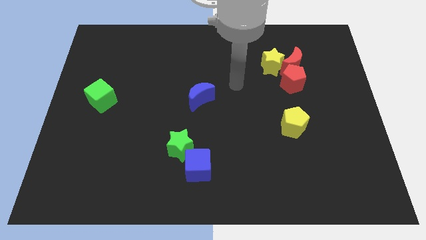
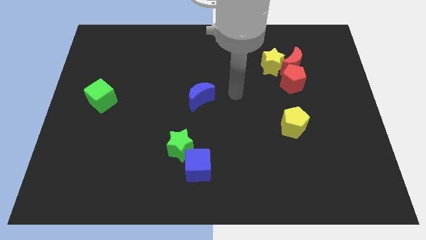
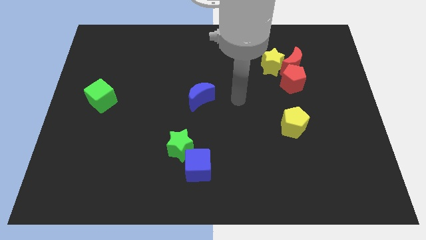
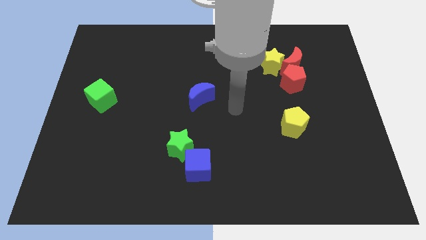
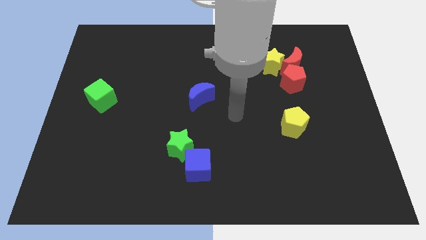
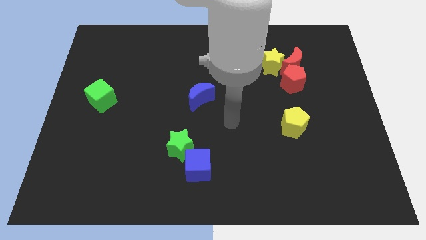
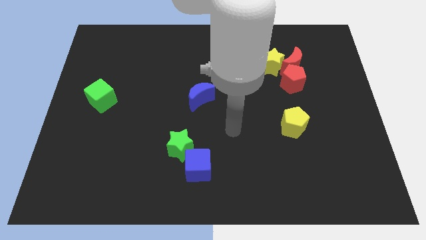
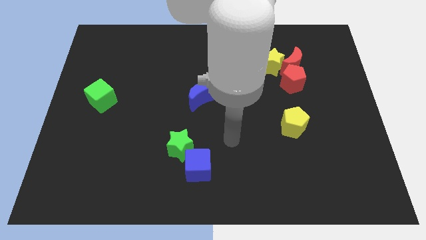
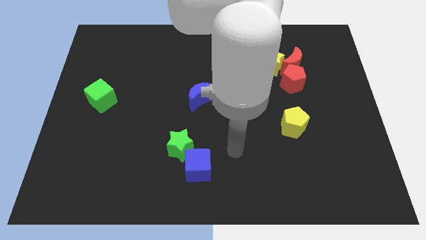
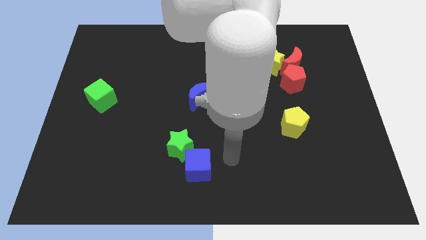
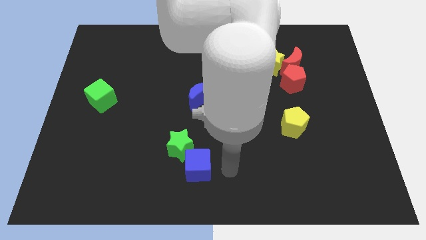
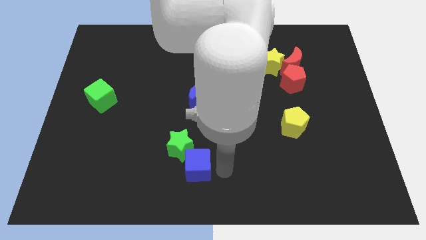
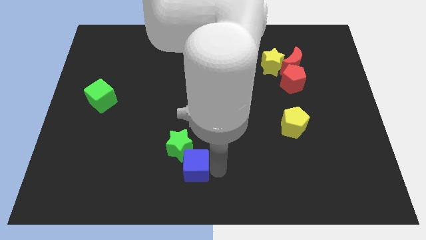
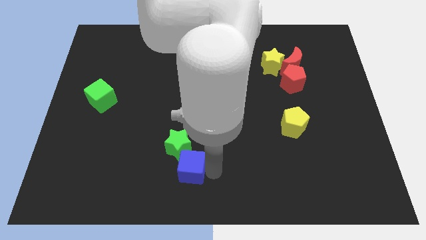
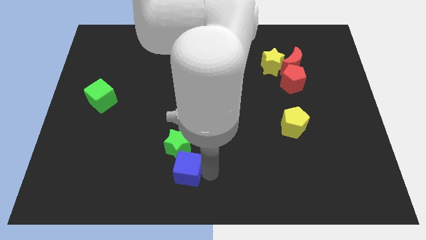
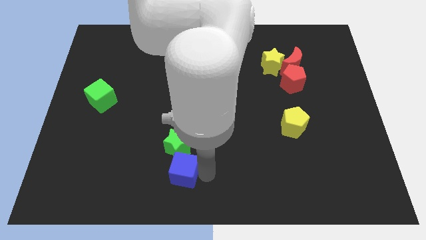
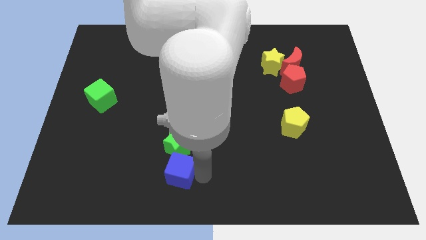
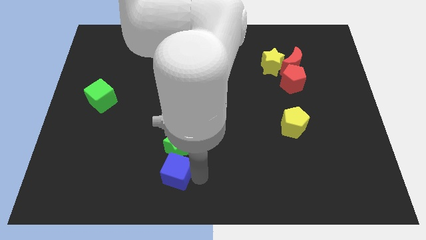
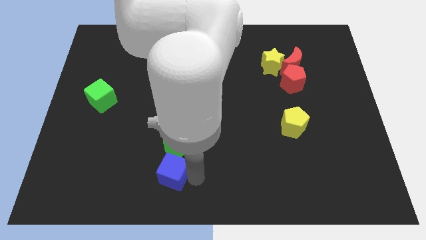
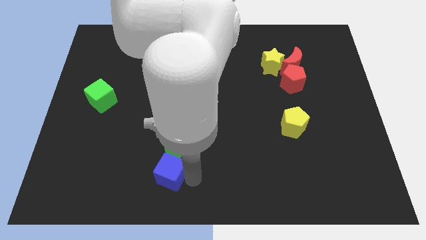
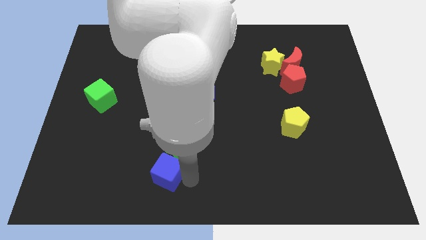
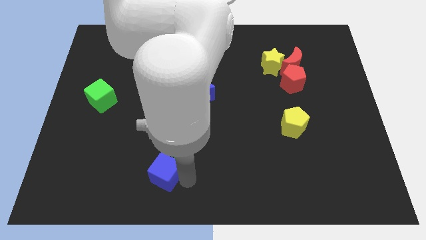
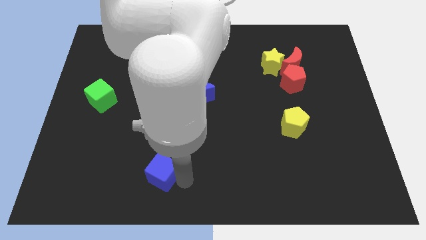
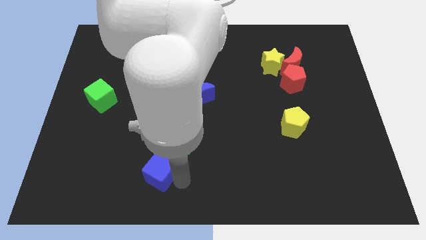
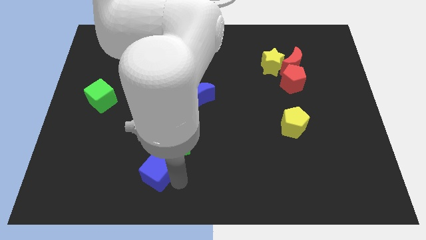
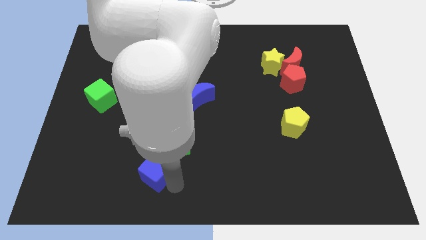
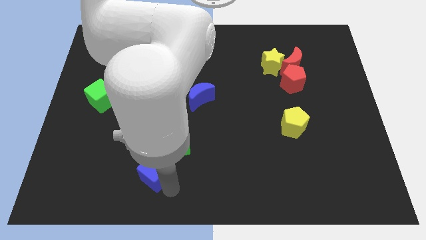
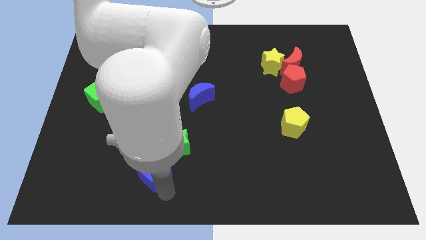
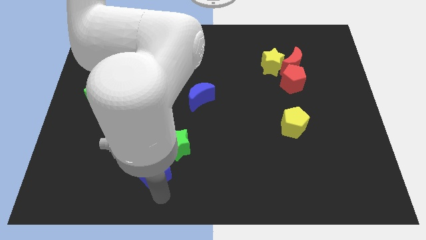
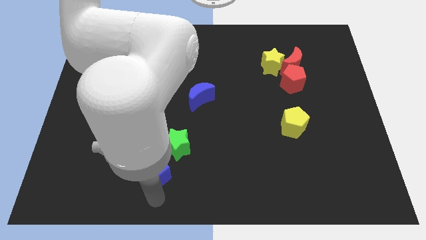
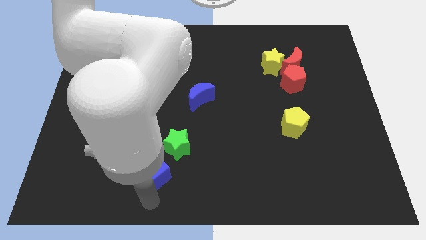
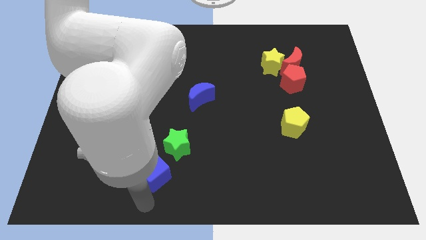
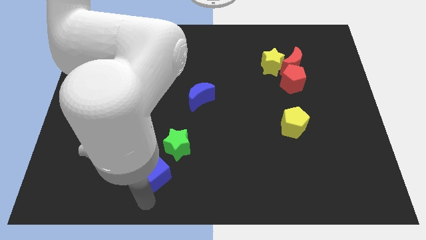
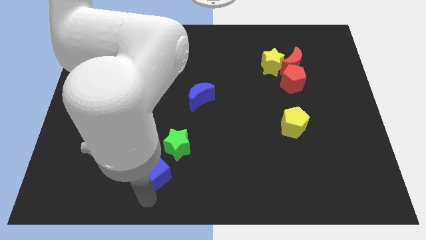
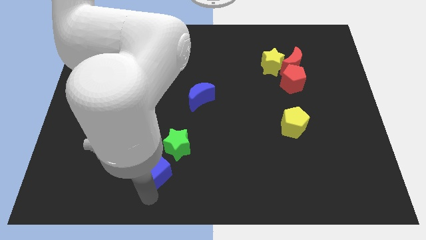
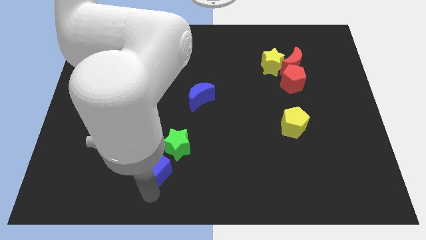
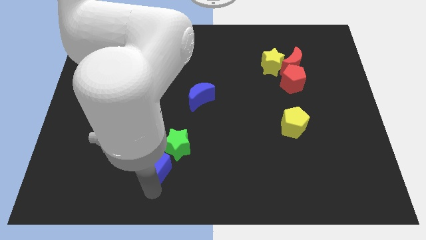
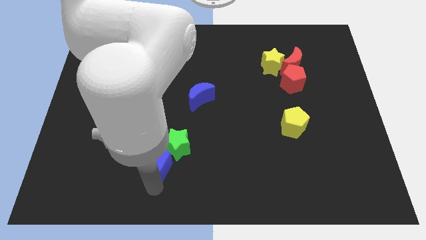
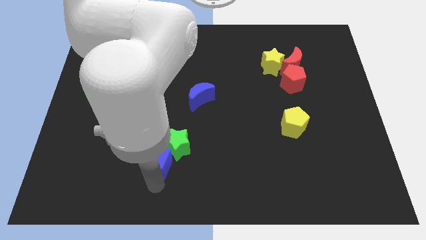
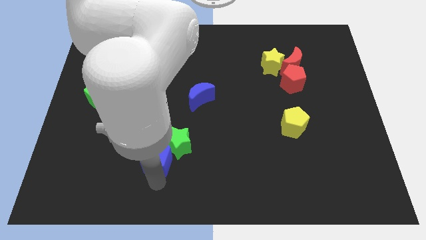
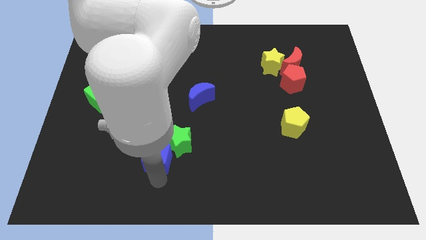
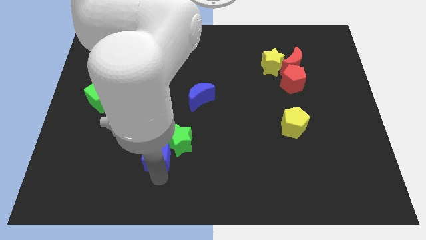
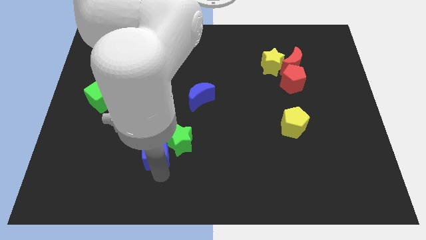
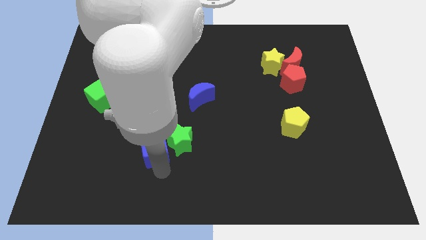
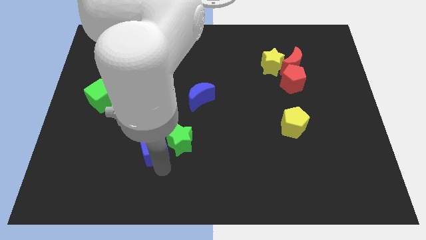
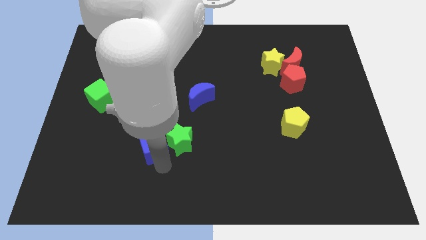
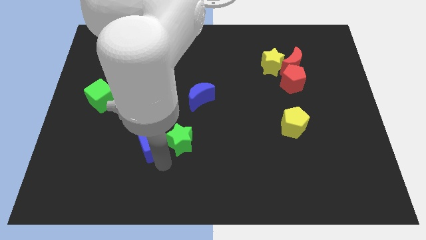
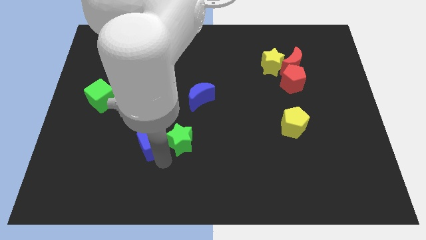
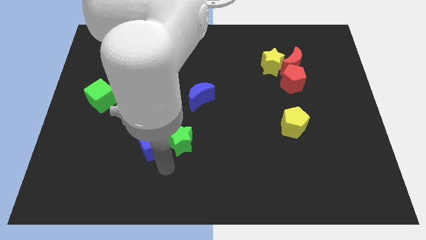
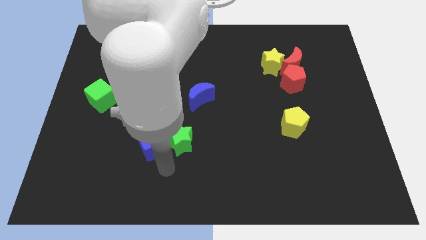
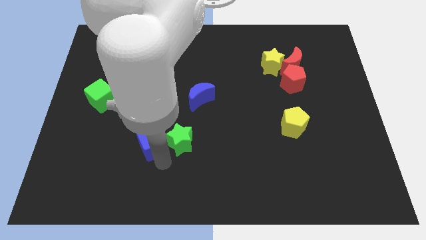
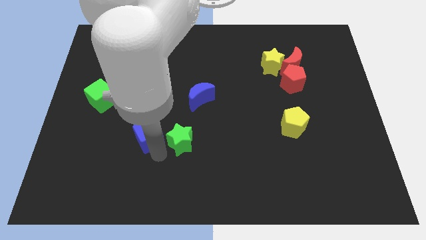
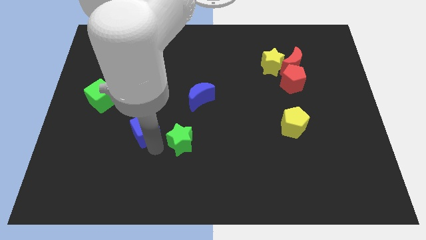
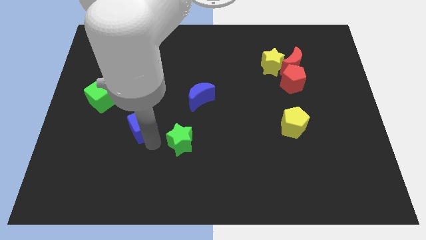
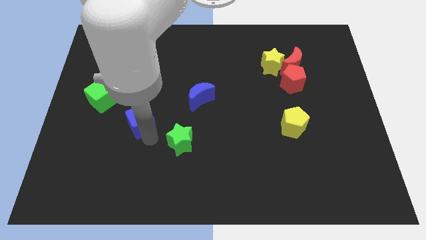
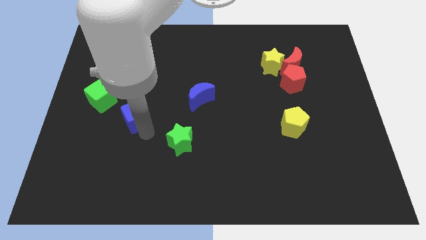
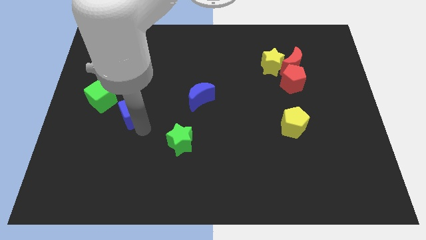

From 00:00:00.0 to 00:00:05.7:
slide the blue cube upwards and then left

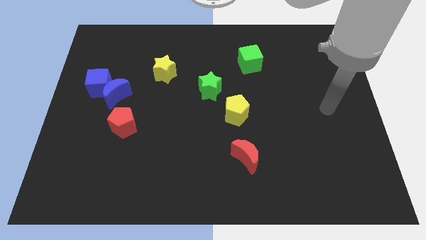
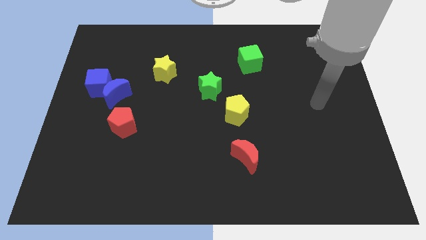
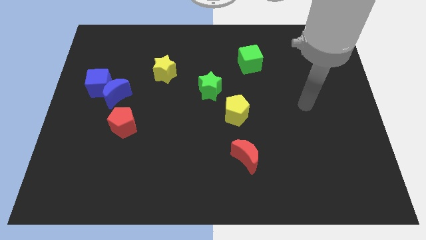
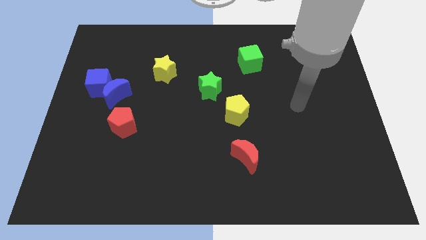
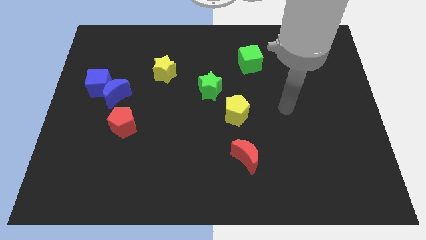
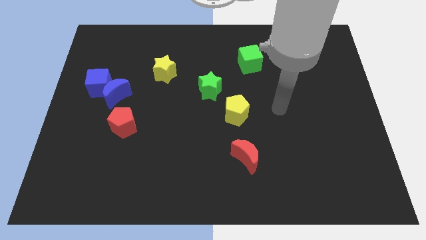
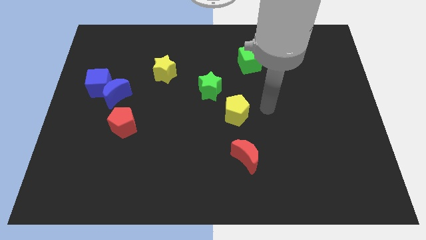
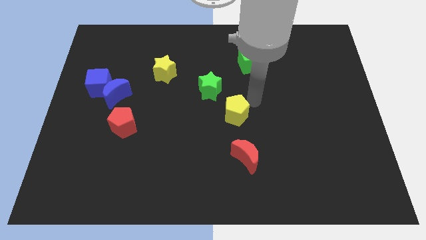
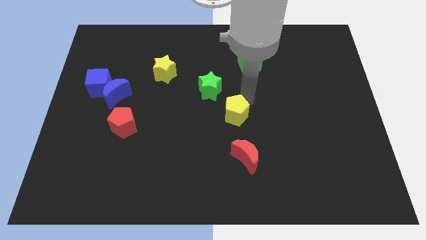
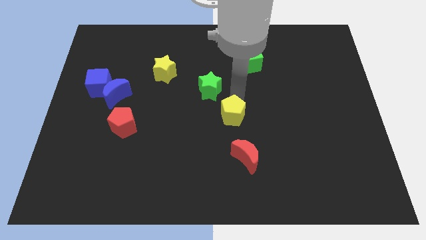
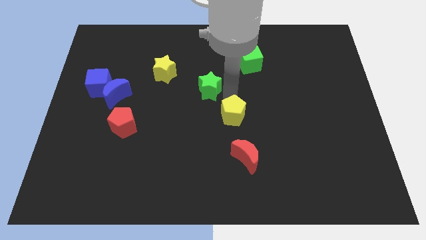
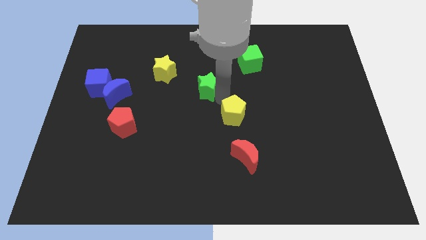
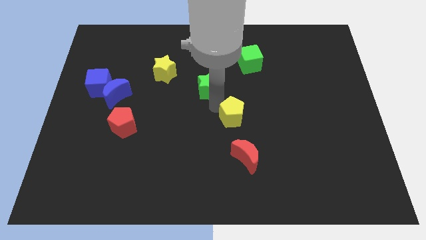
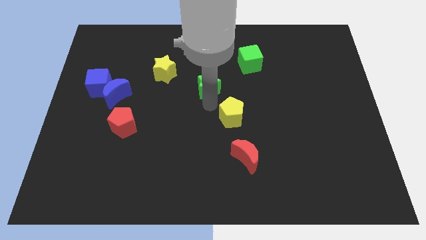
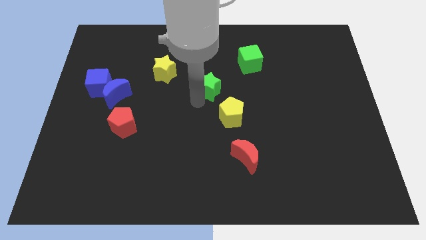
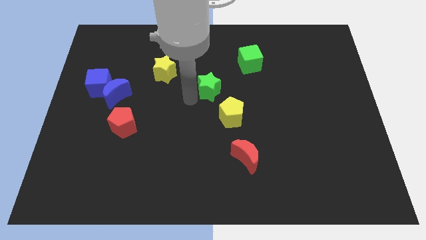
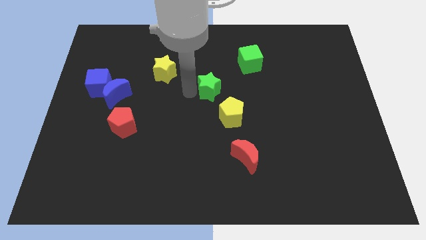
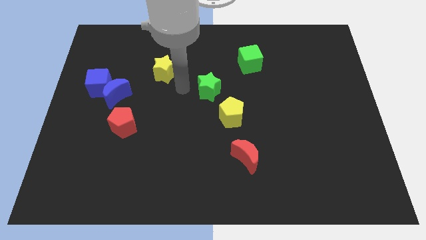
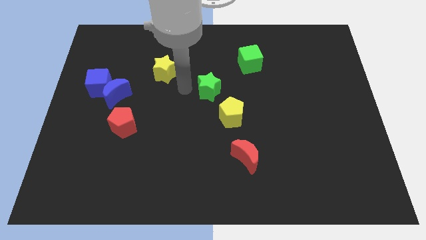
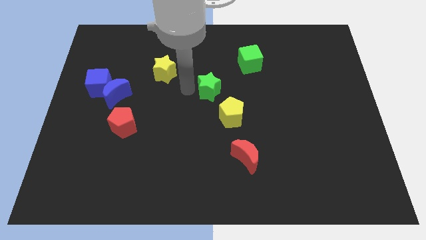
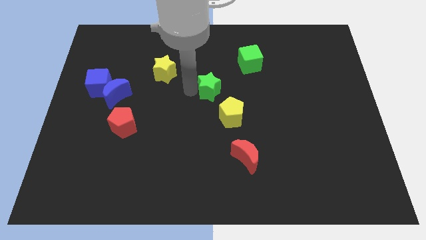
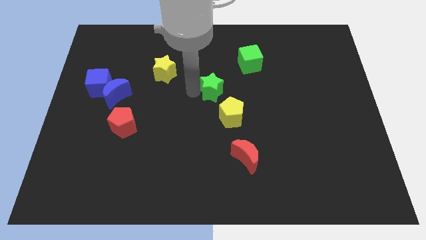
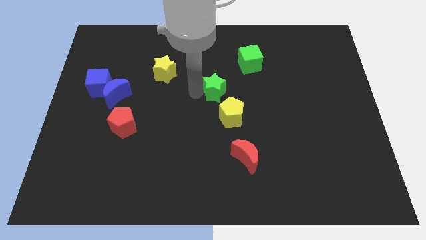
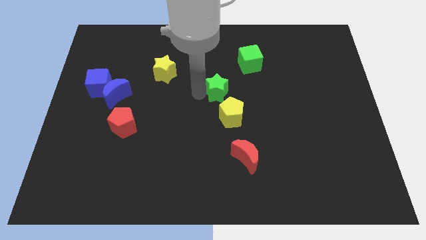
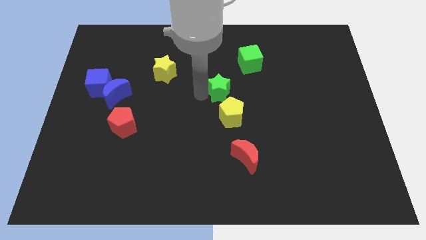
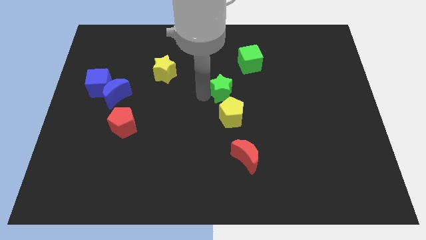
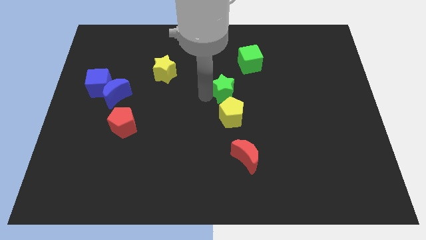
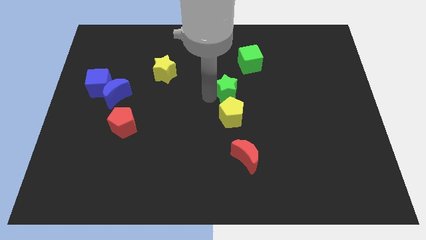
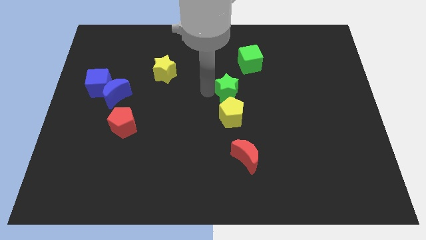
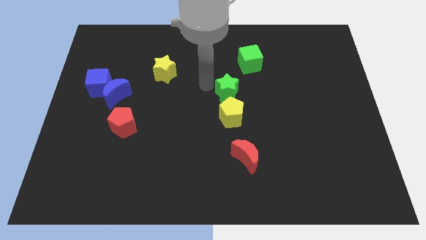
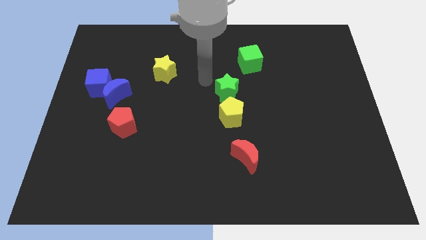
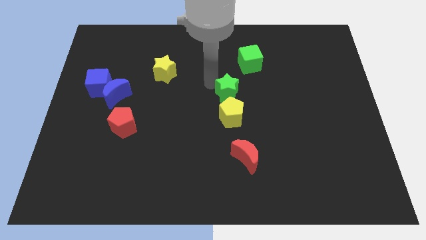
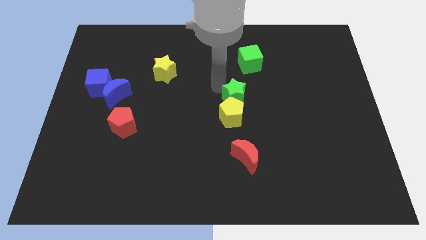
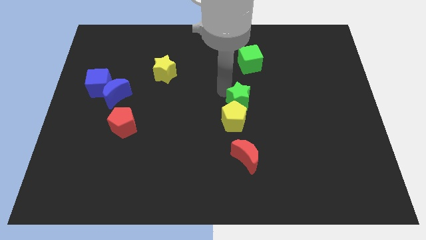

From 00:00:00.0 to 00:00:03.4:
slightly slide the green star downwards and right
